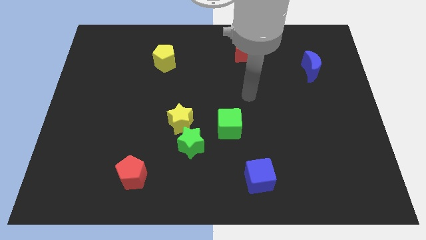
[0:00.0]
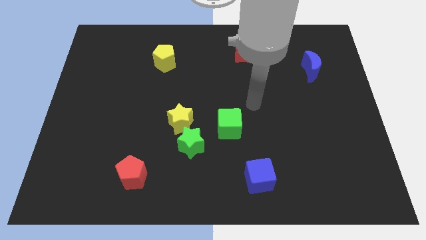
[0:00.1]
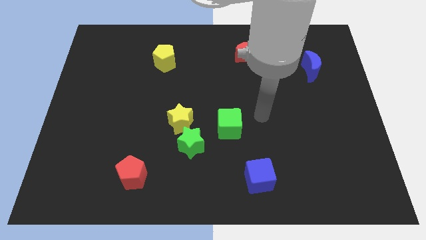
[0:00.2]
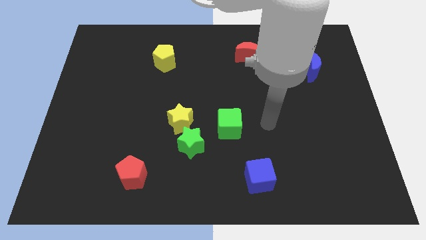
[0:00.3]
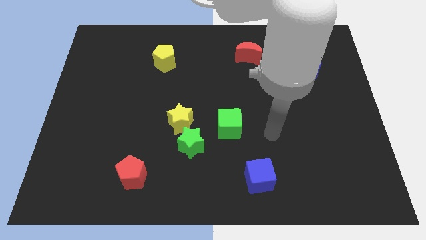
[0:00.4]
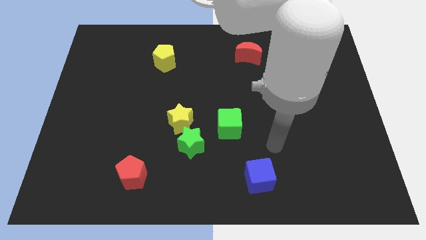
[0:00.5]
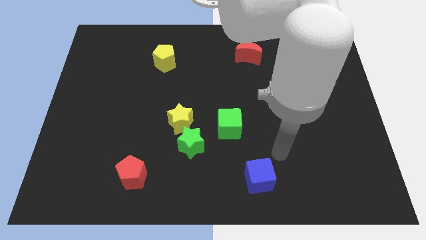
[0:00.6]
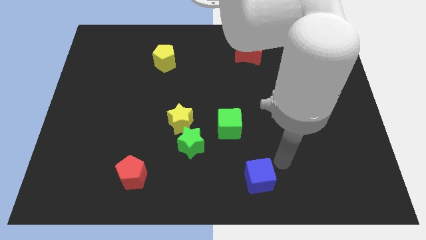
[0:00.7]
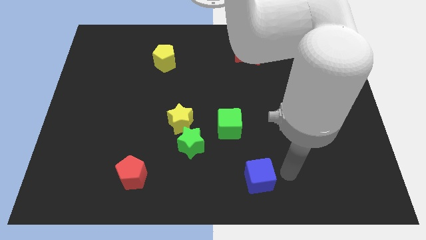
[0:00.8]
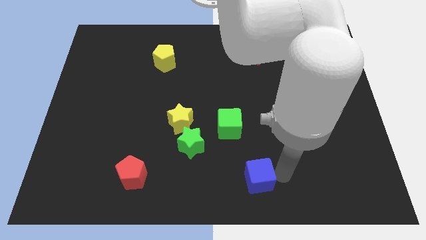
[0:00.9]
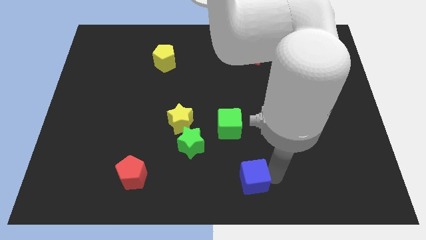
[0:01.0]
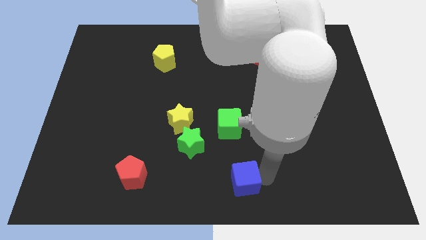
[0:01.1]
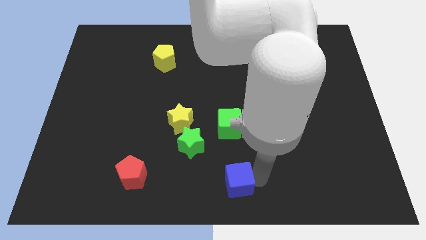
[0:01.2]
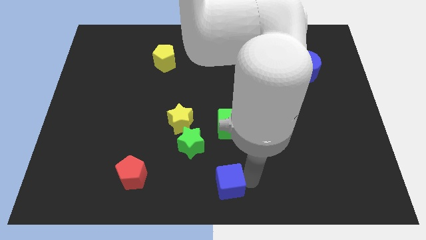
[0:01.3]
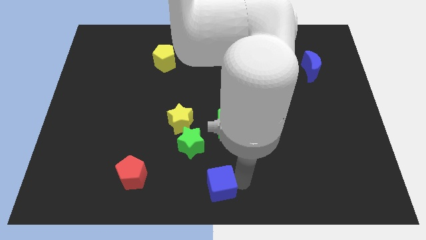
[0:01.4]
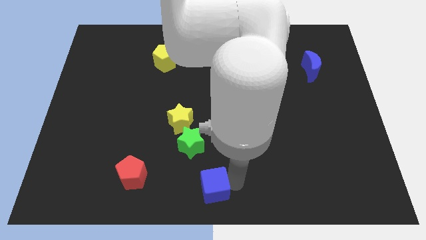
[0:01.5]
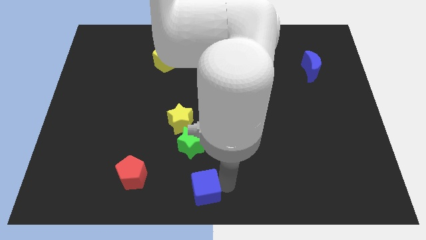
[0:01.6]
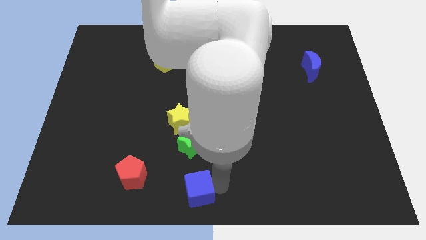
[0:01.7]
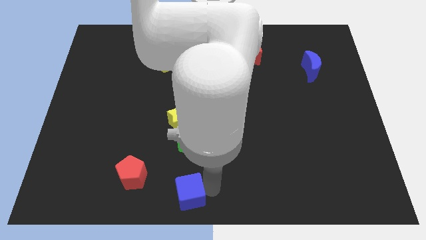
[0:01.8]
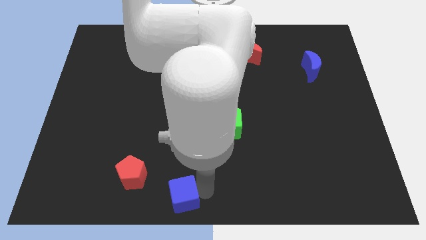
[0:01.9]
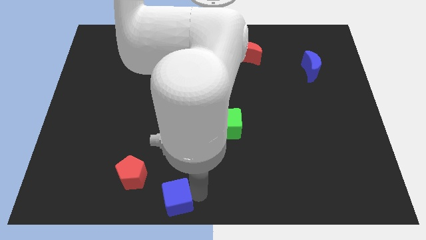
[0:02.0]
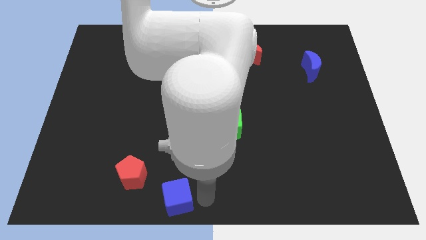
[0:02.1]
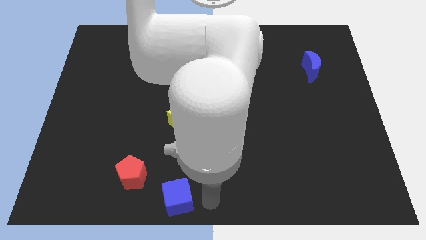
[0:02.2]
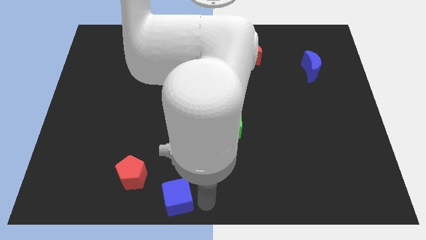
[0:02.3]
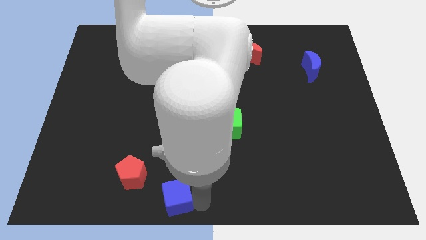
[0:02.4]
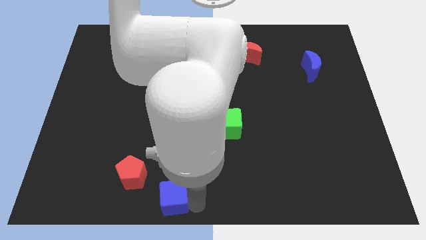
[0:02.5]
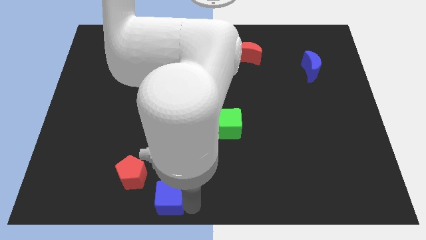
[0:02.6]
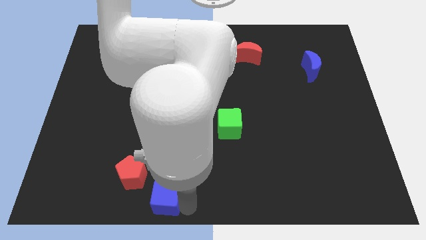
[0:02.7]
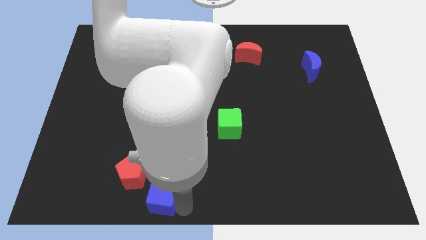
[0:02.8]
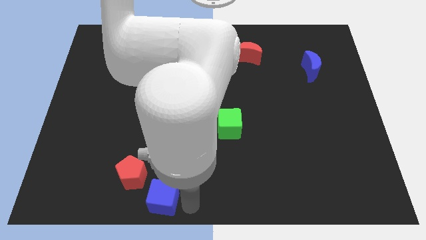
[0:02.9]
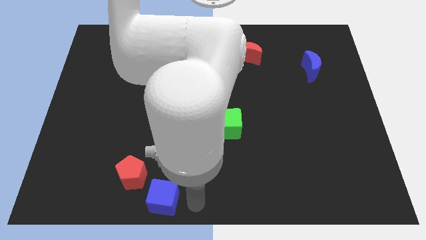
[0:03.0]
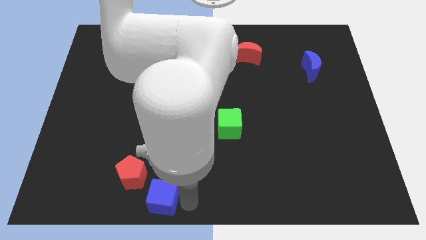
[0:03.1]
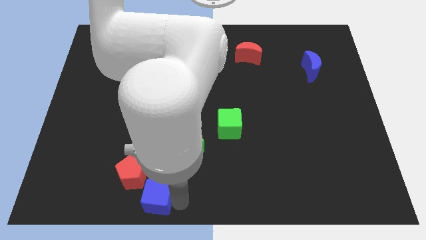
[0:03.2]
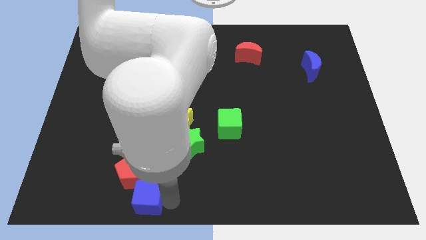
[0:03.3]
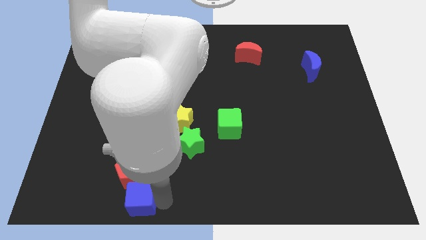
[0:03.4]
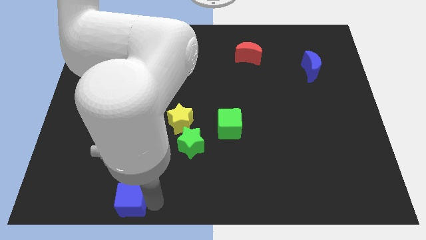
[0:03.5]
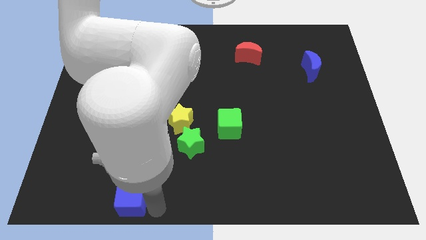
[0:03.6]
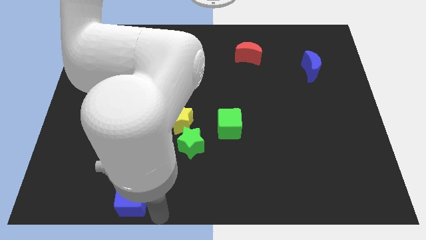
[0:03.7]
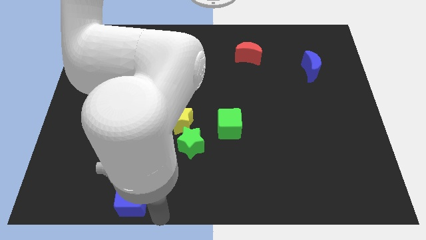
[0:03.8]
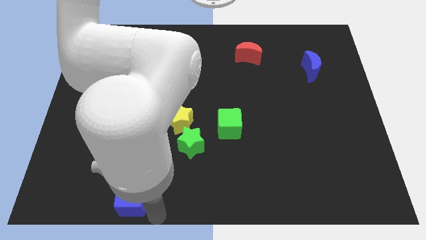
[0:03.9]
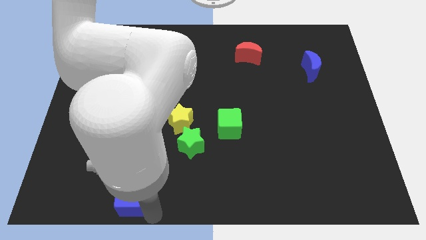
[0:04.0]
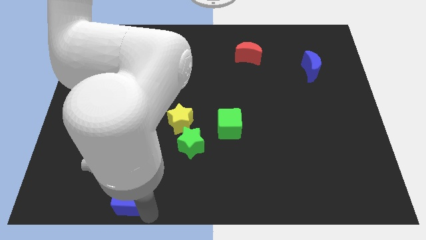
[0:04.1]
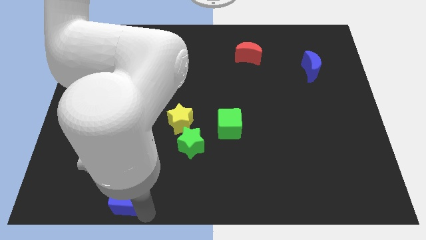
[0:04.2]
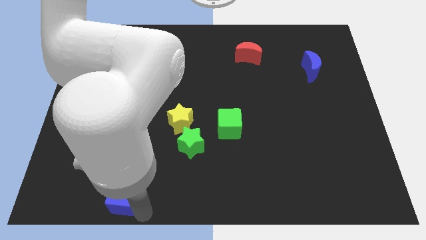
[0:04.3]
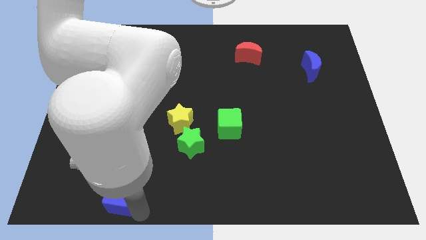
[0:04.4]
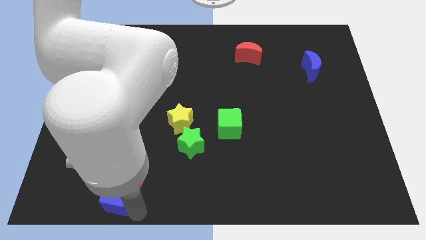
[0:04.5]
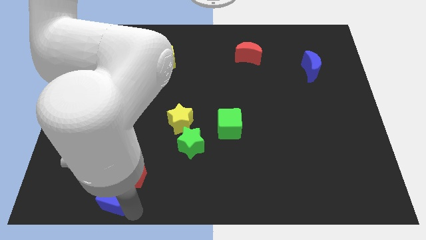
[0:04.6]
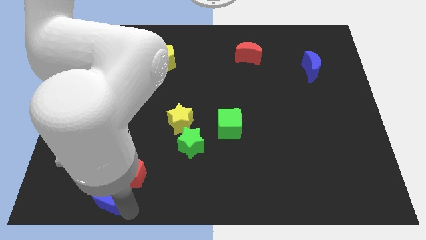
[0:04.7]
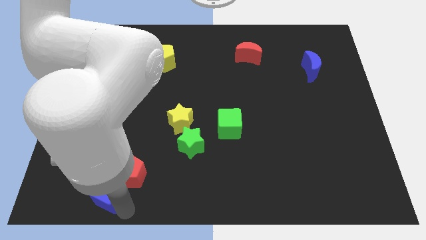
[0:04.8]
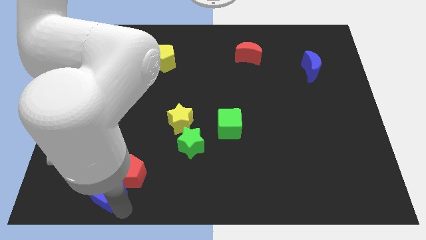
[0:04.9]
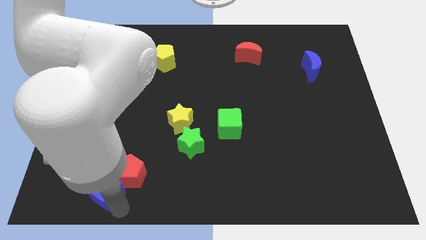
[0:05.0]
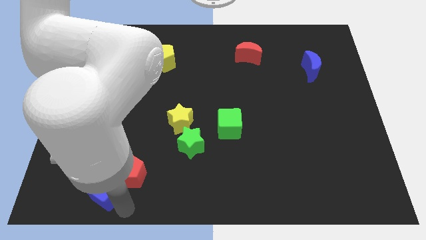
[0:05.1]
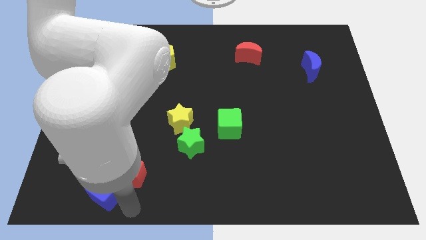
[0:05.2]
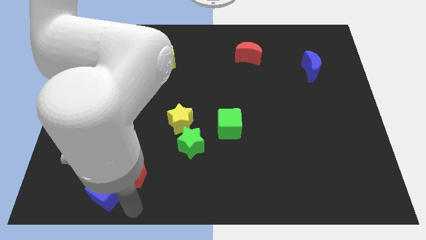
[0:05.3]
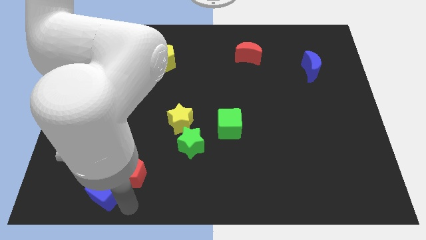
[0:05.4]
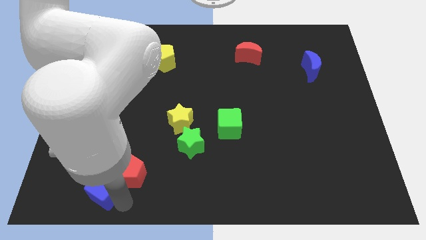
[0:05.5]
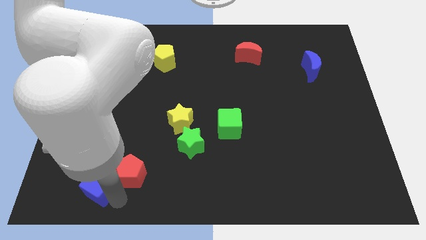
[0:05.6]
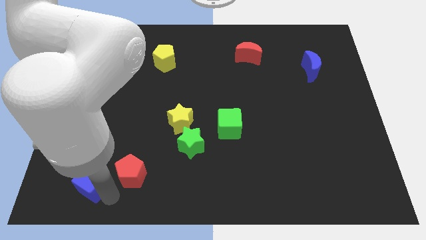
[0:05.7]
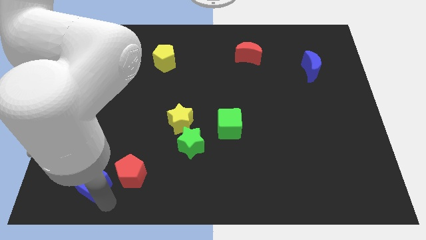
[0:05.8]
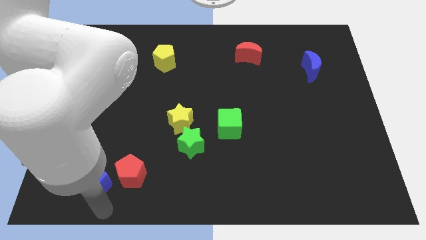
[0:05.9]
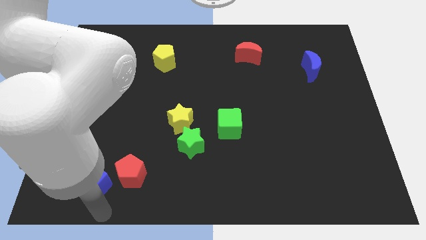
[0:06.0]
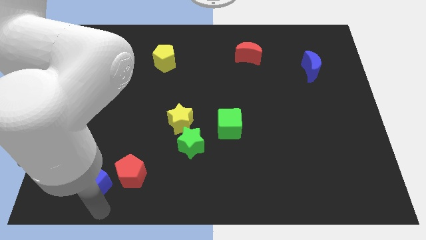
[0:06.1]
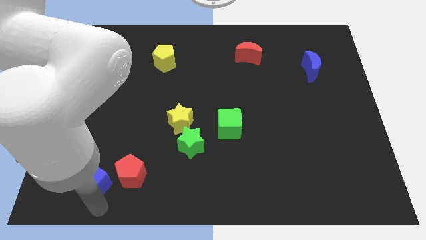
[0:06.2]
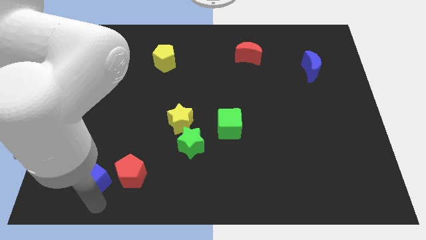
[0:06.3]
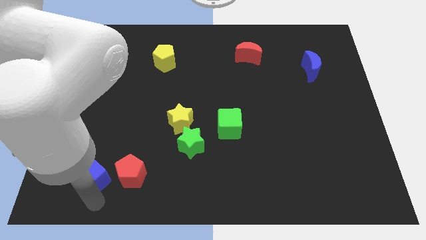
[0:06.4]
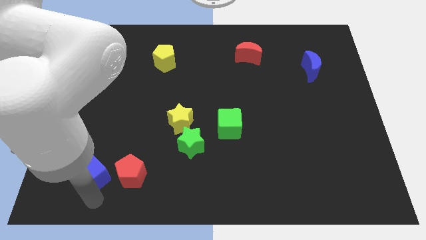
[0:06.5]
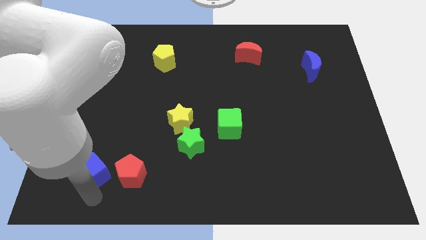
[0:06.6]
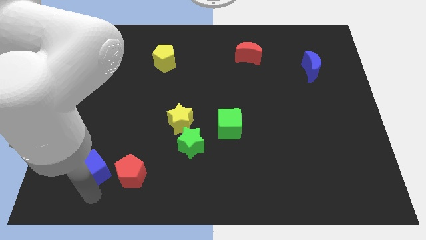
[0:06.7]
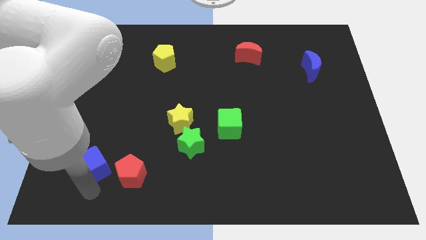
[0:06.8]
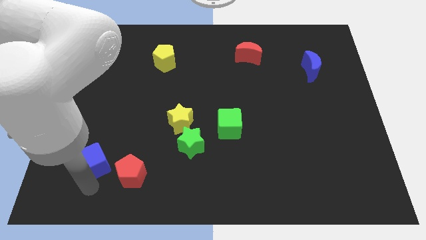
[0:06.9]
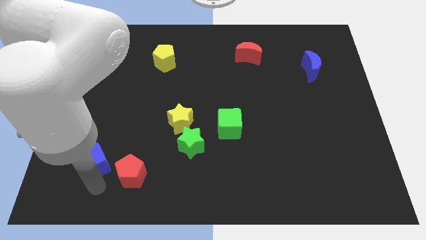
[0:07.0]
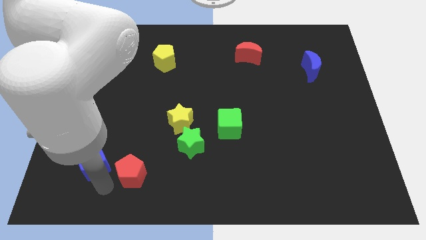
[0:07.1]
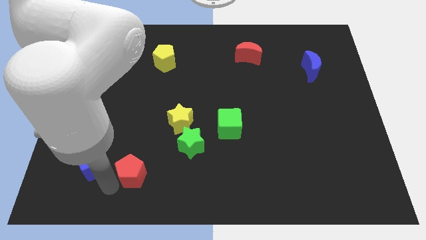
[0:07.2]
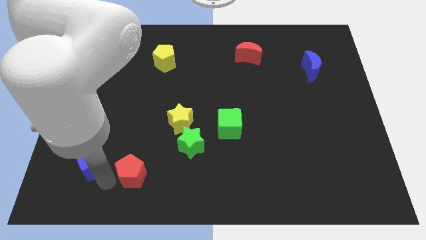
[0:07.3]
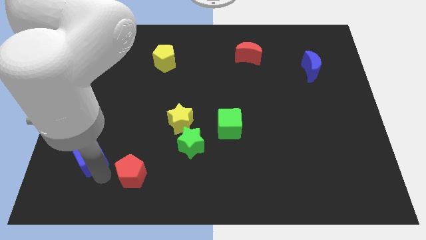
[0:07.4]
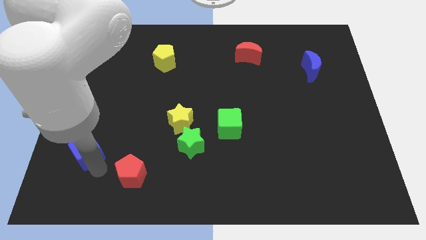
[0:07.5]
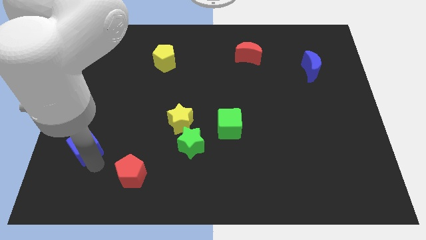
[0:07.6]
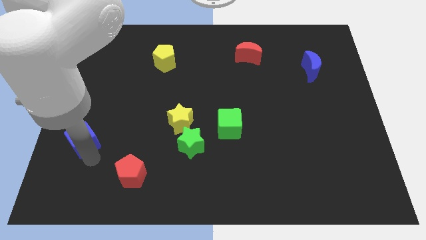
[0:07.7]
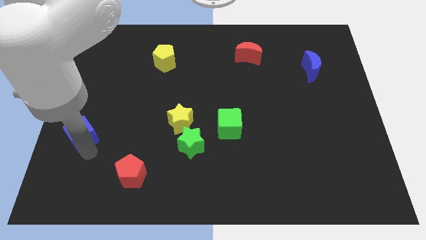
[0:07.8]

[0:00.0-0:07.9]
push the blue cube to the center left
